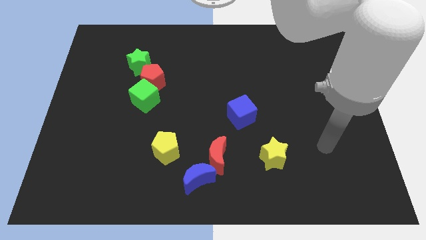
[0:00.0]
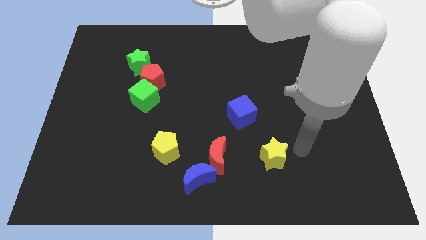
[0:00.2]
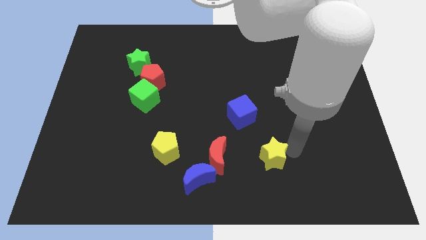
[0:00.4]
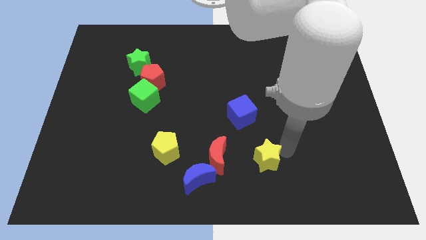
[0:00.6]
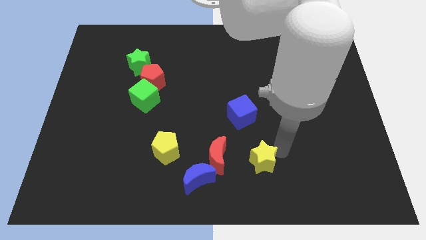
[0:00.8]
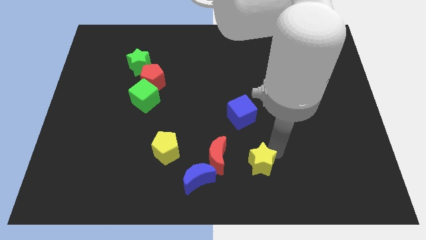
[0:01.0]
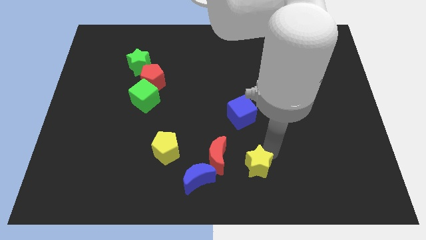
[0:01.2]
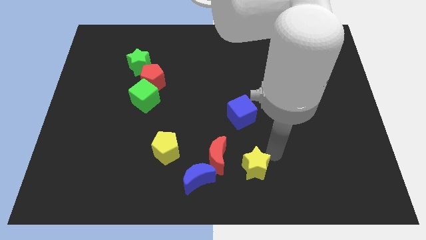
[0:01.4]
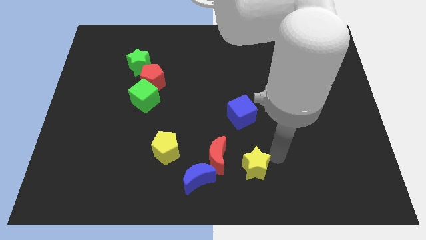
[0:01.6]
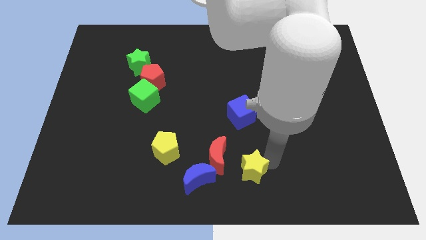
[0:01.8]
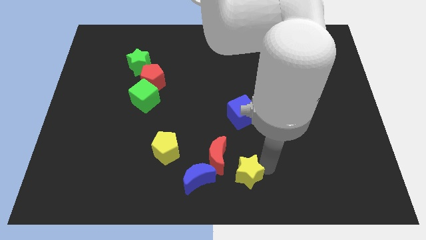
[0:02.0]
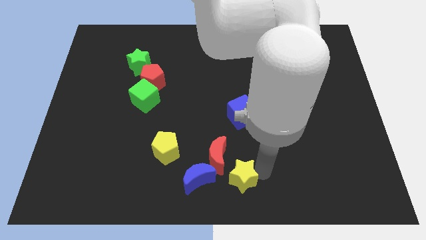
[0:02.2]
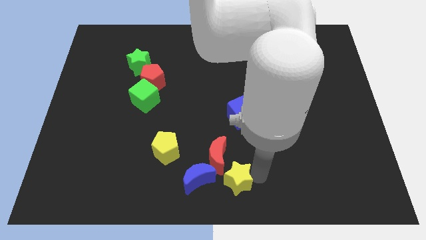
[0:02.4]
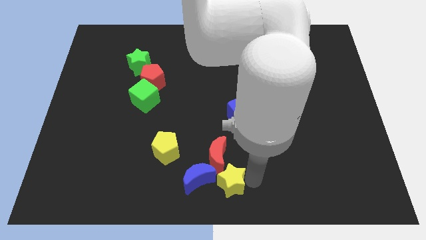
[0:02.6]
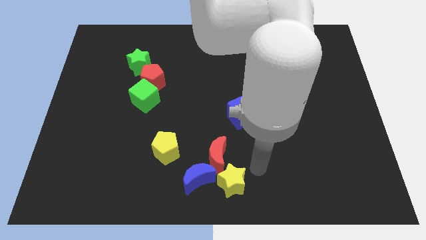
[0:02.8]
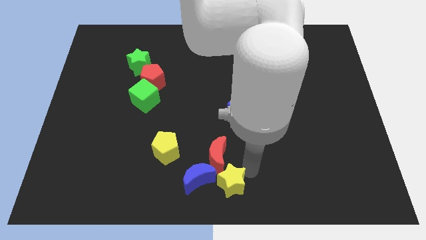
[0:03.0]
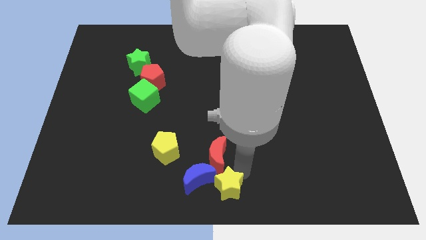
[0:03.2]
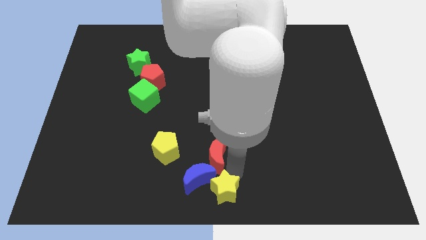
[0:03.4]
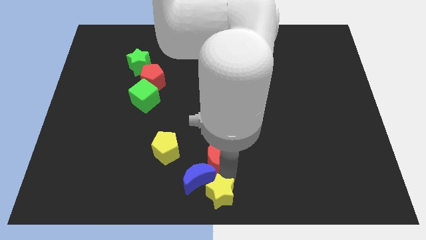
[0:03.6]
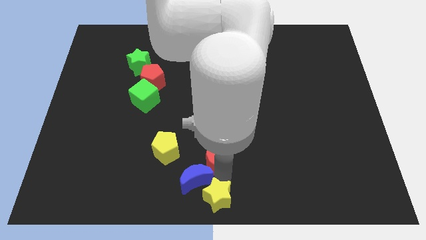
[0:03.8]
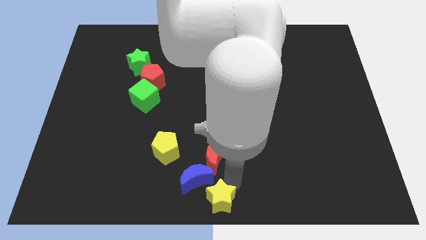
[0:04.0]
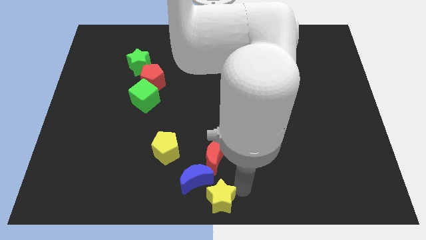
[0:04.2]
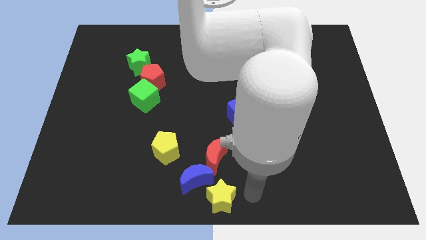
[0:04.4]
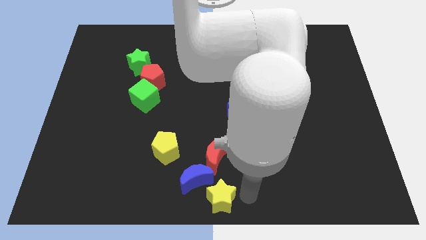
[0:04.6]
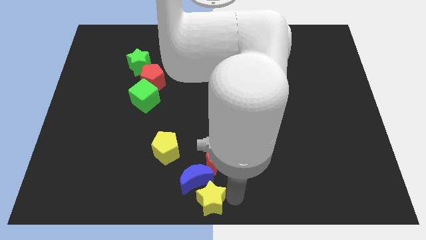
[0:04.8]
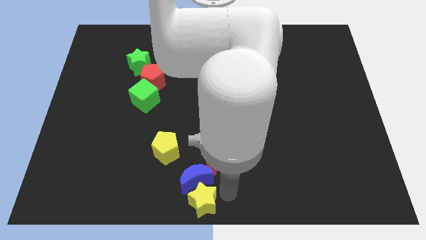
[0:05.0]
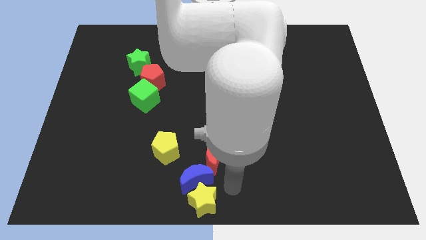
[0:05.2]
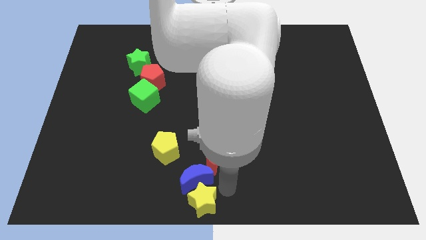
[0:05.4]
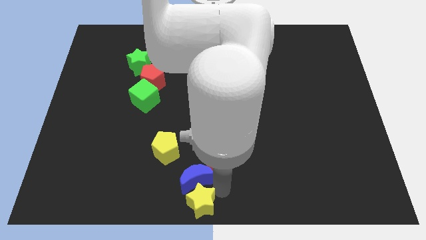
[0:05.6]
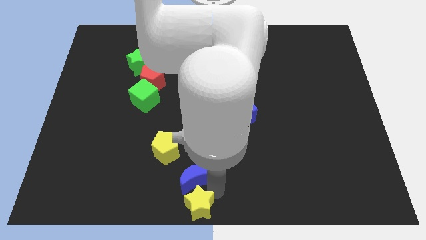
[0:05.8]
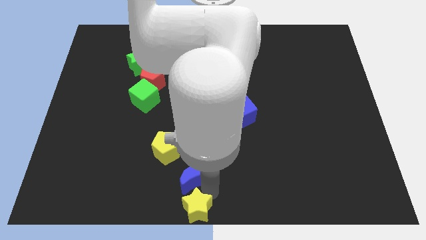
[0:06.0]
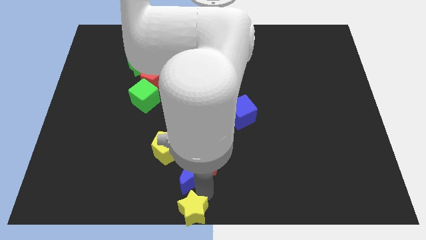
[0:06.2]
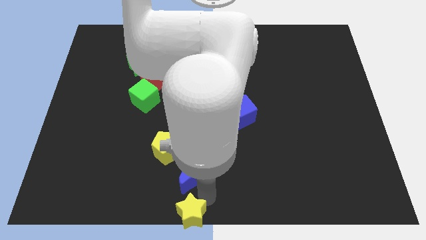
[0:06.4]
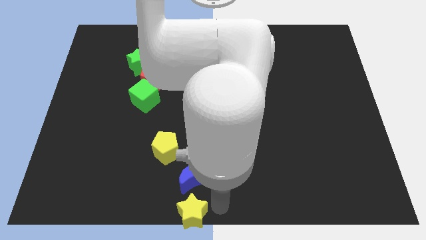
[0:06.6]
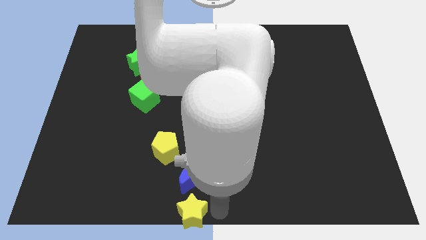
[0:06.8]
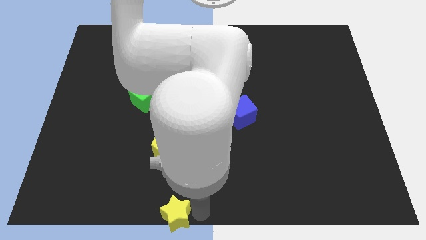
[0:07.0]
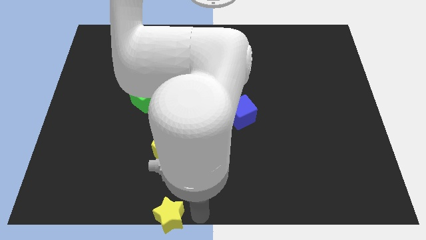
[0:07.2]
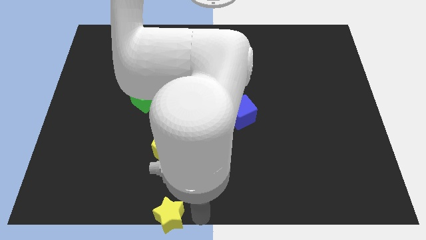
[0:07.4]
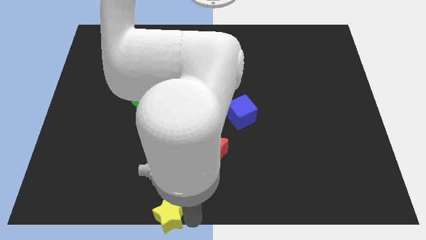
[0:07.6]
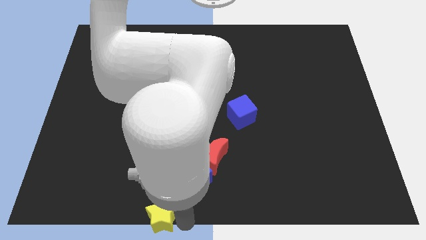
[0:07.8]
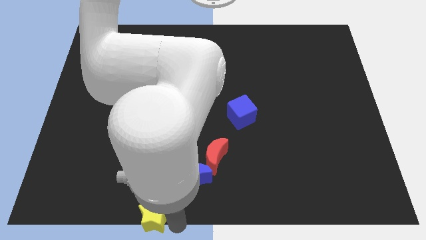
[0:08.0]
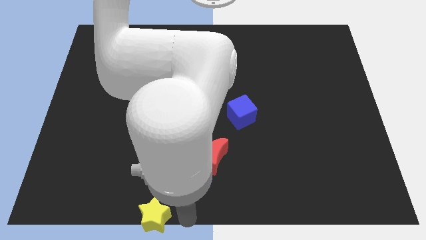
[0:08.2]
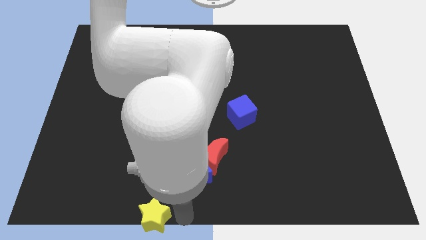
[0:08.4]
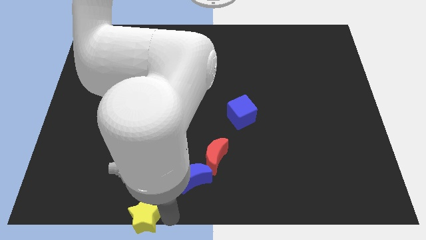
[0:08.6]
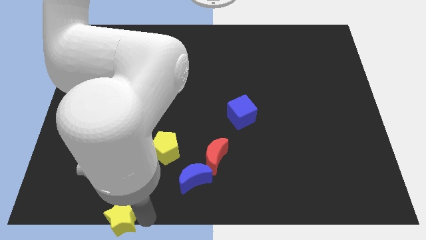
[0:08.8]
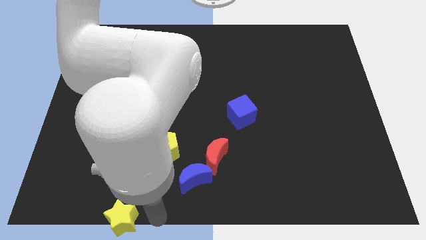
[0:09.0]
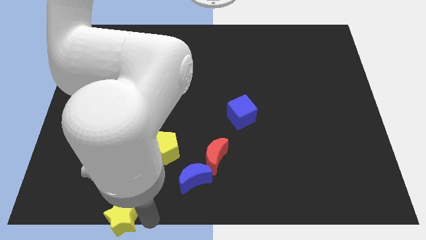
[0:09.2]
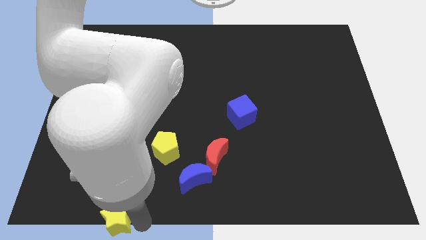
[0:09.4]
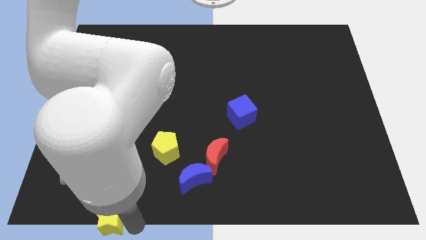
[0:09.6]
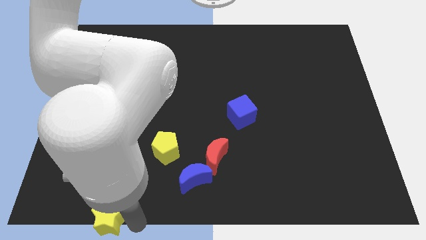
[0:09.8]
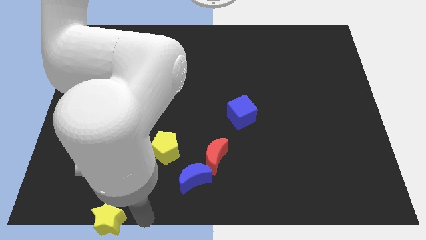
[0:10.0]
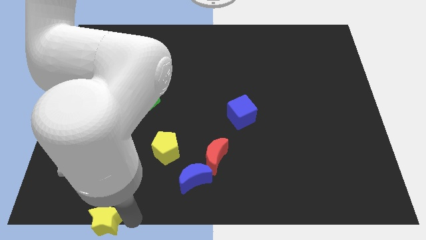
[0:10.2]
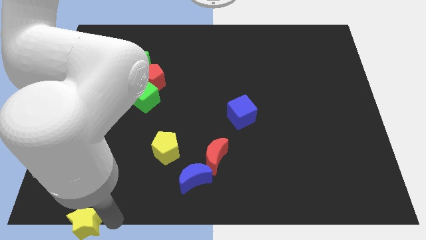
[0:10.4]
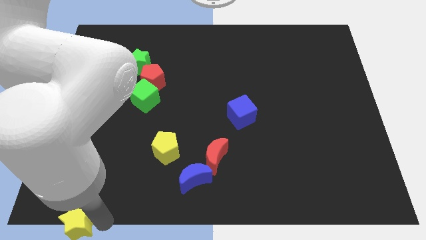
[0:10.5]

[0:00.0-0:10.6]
push the yellow star to the lower left corner

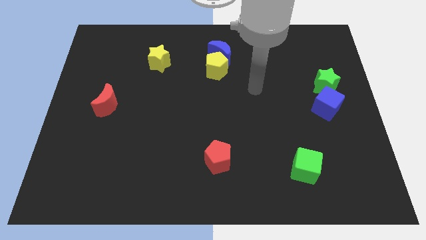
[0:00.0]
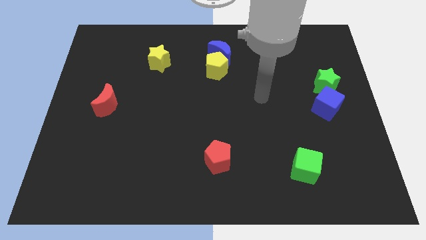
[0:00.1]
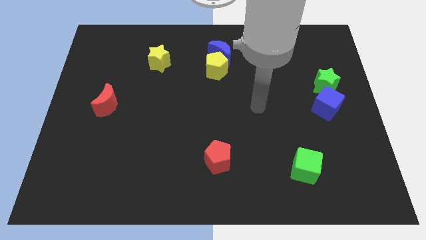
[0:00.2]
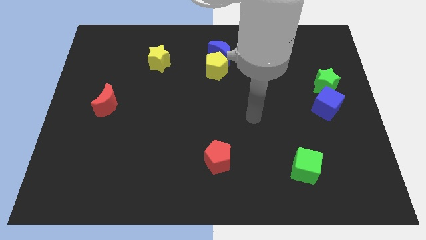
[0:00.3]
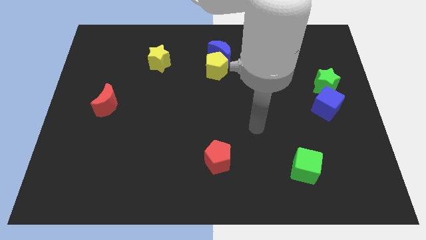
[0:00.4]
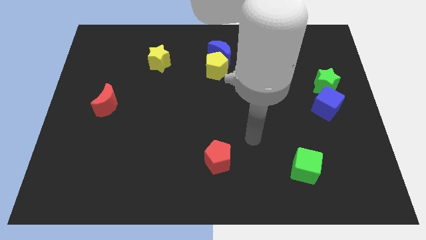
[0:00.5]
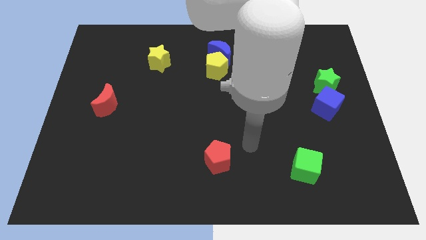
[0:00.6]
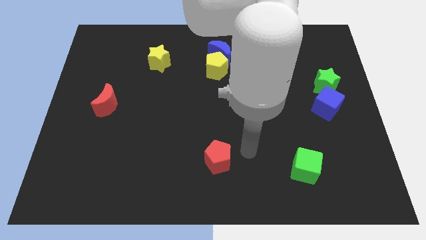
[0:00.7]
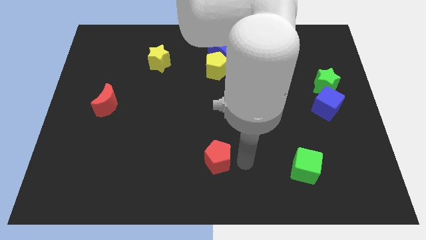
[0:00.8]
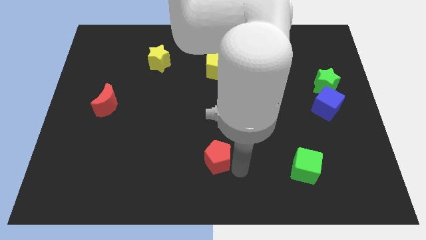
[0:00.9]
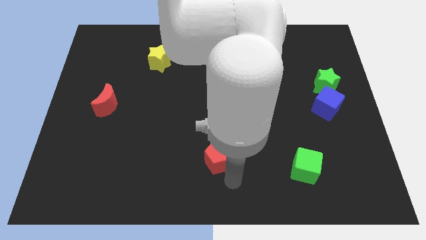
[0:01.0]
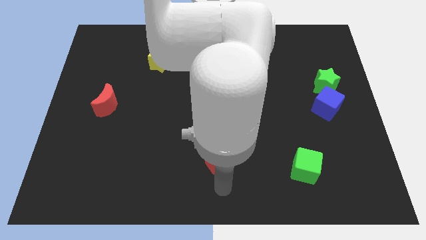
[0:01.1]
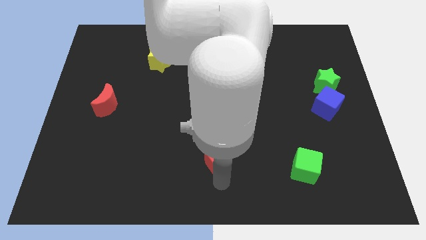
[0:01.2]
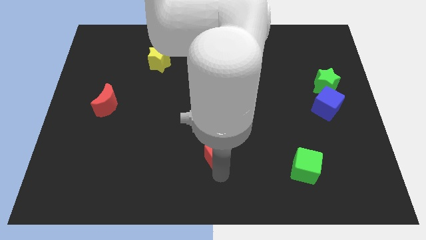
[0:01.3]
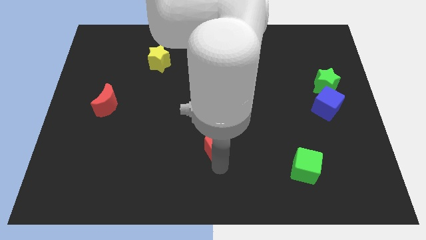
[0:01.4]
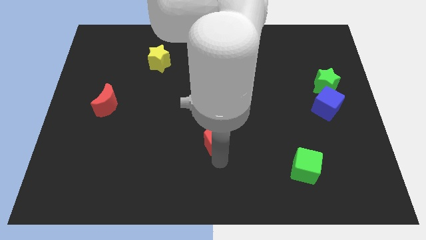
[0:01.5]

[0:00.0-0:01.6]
move the red pentagon to the middle
